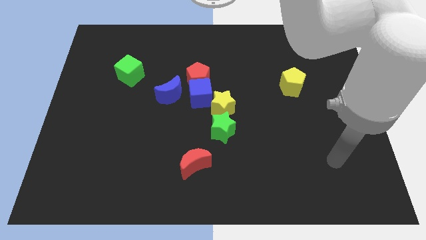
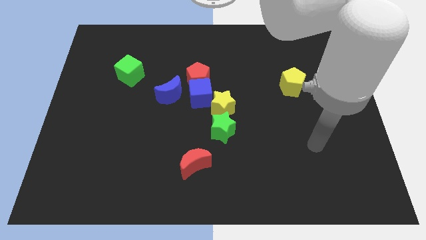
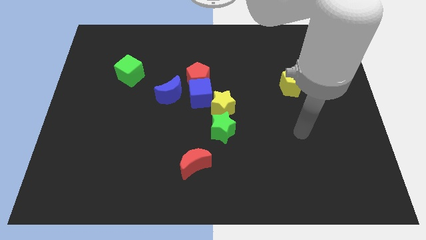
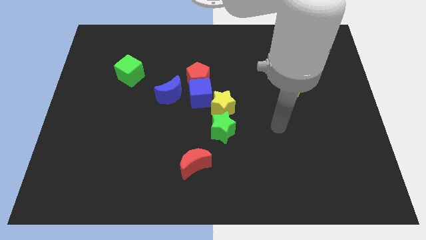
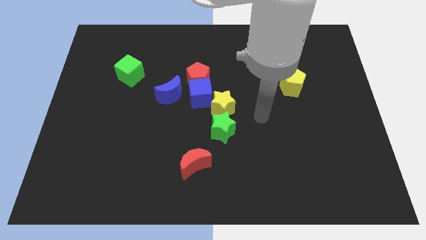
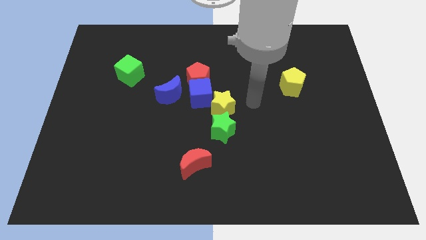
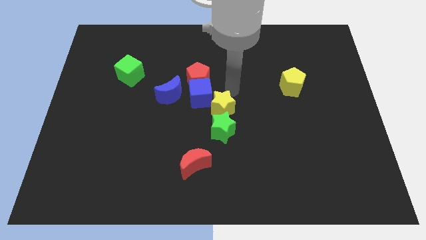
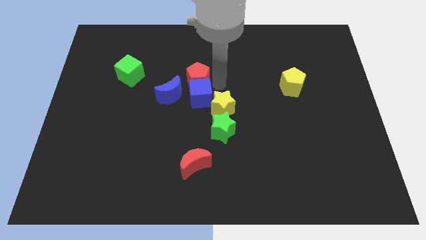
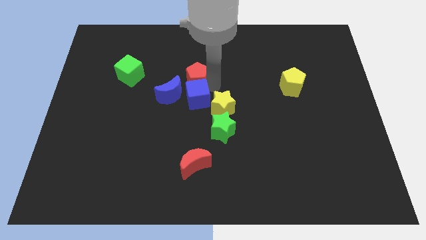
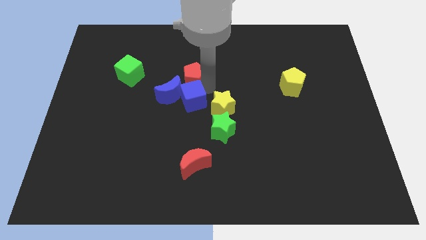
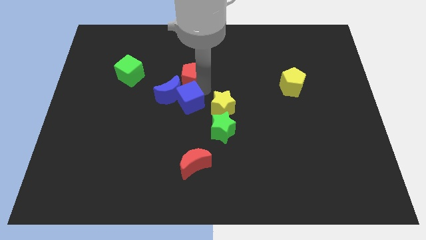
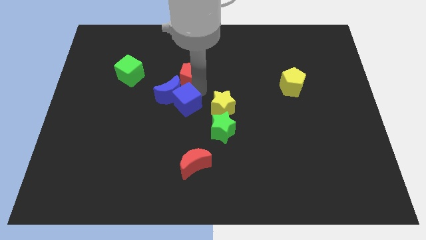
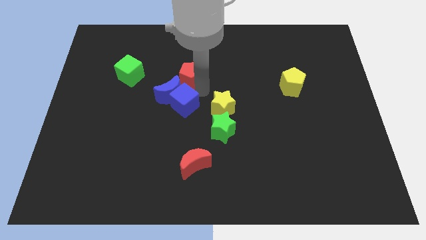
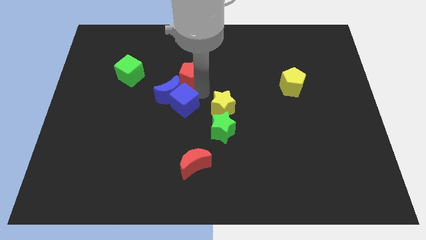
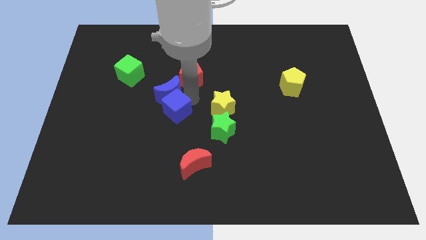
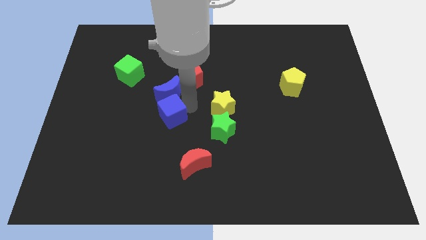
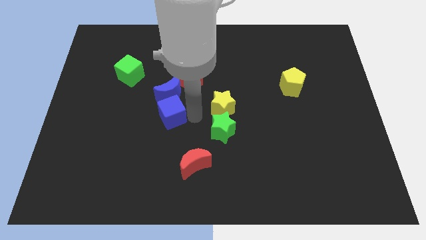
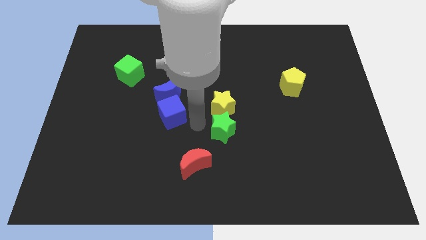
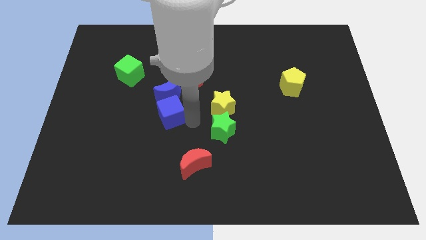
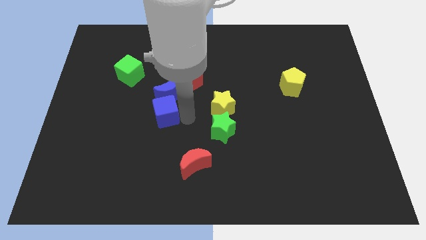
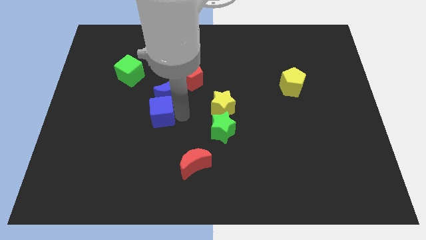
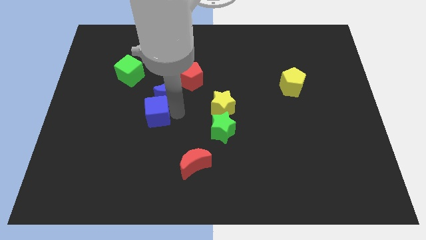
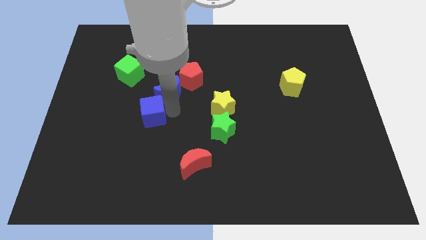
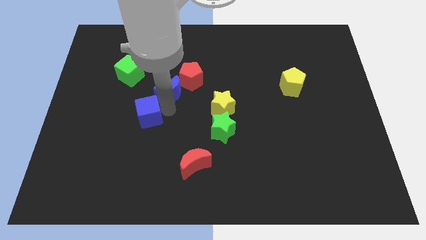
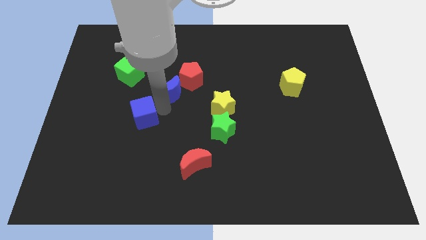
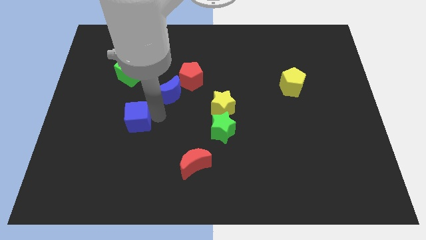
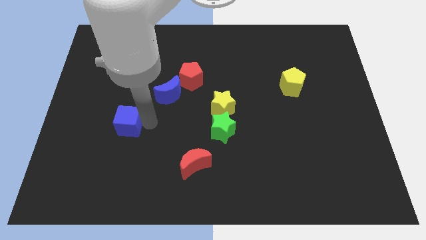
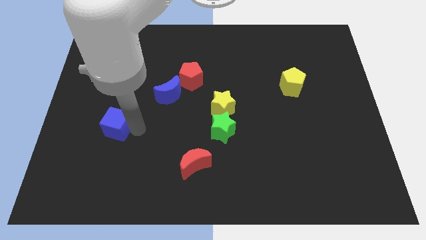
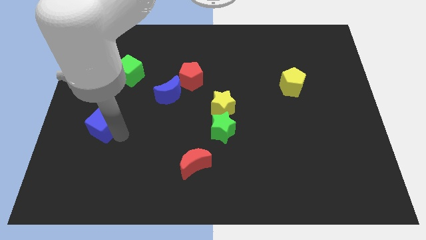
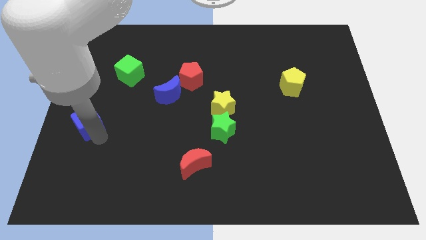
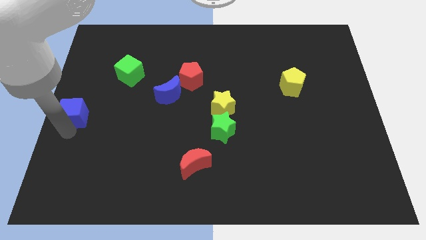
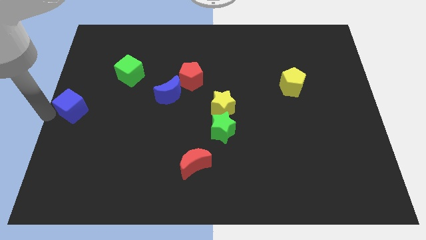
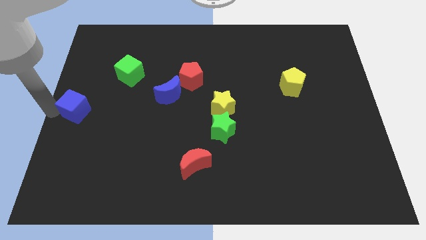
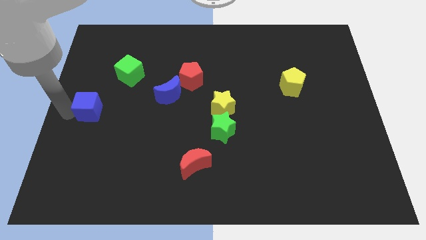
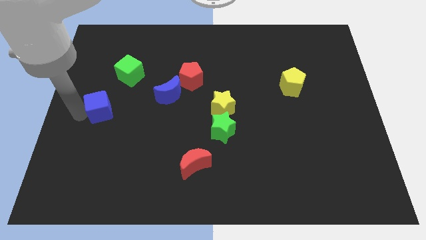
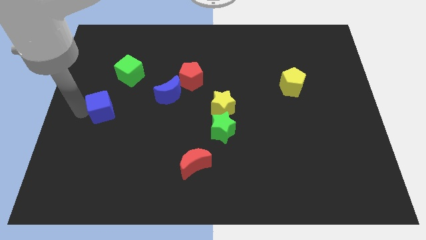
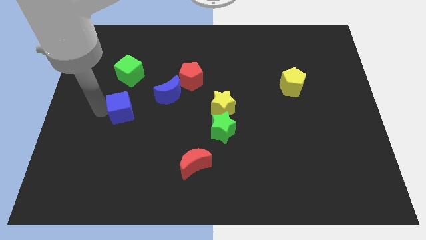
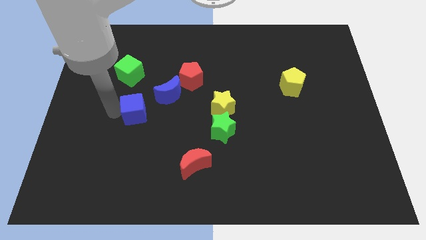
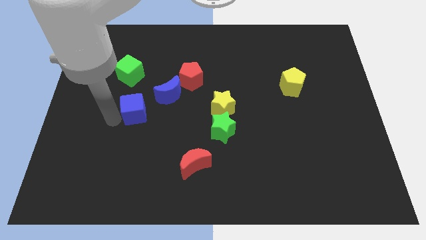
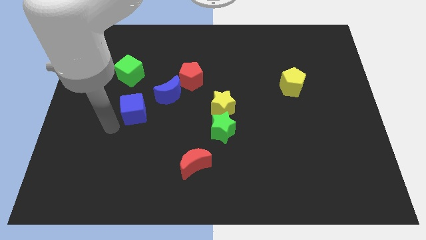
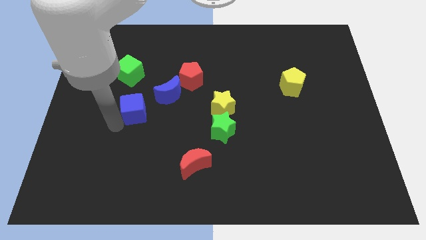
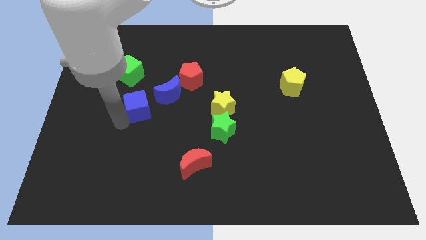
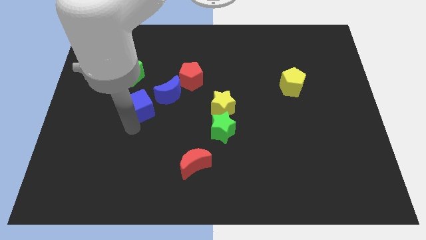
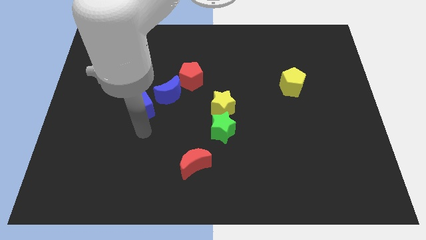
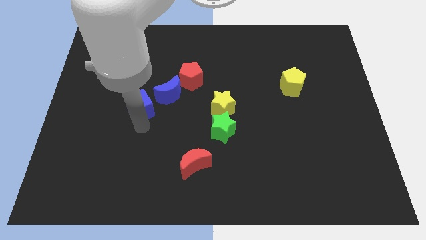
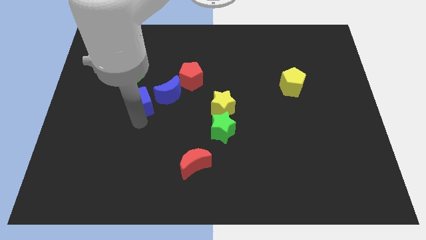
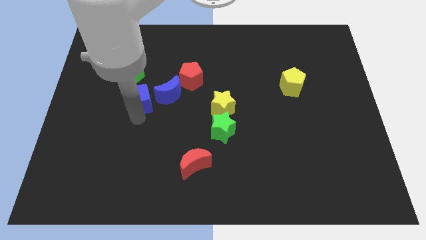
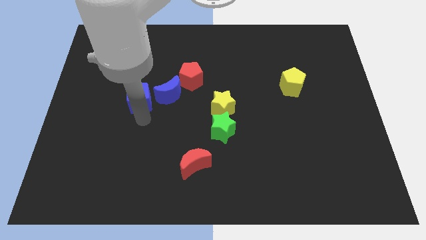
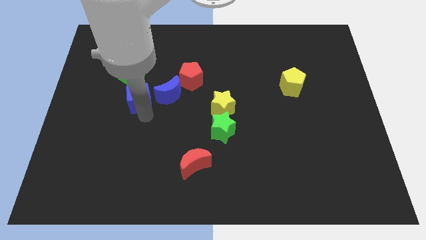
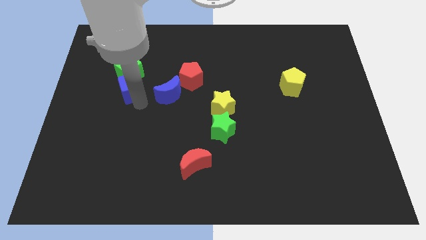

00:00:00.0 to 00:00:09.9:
move the blue cube towards the green cube

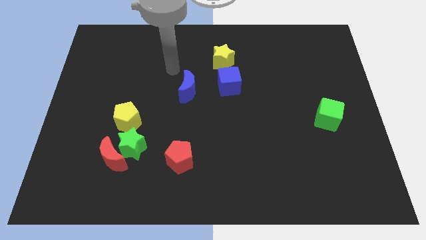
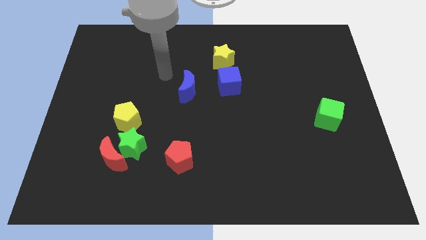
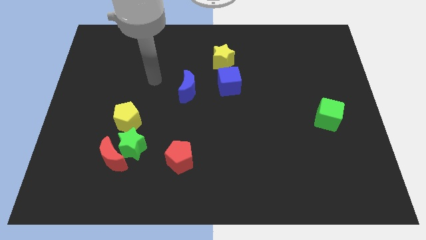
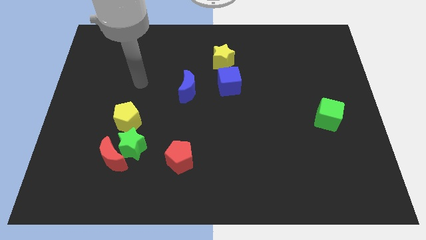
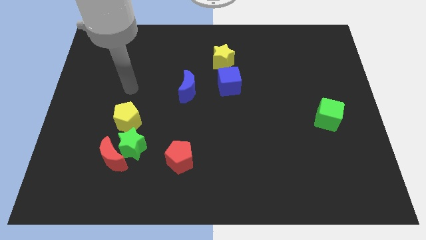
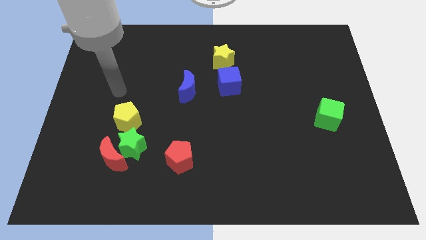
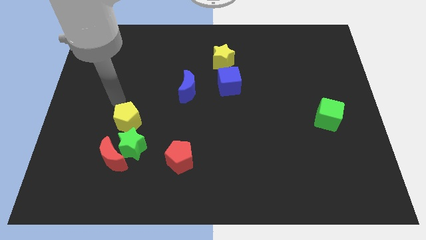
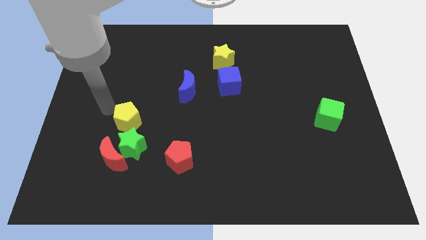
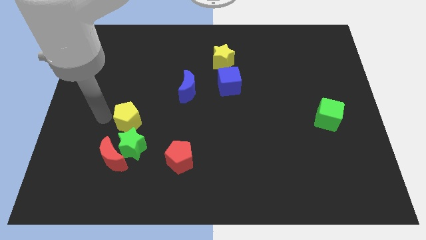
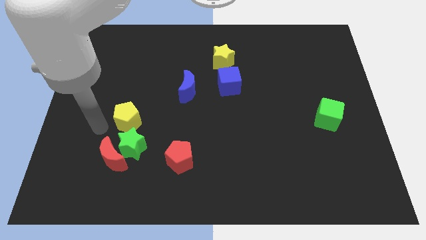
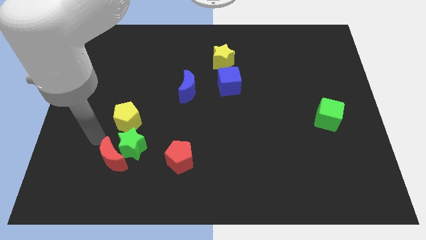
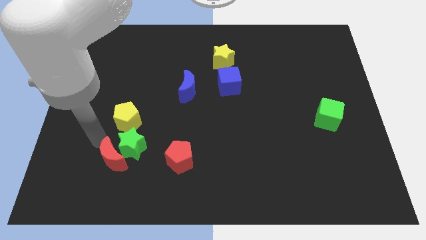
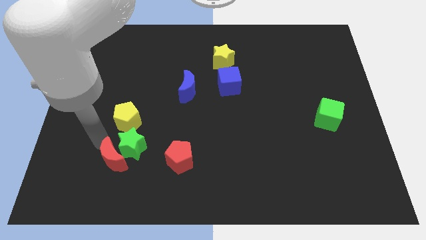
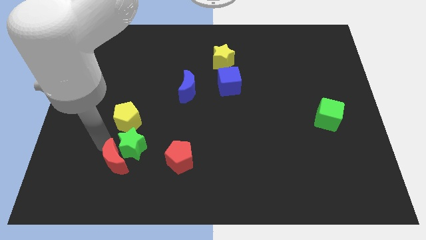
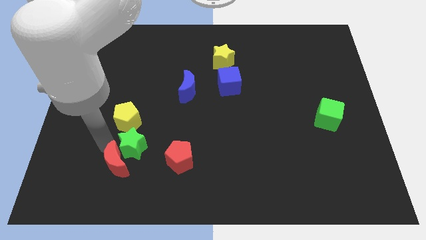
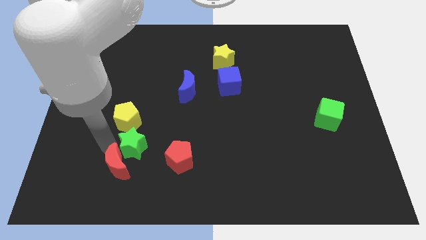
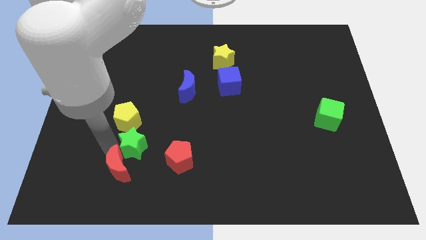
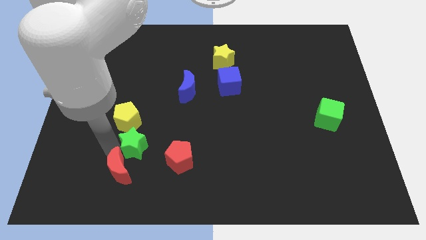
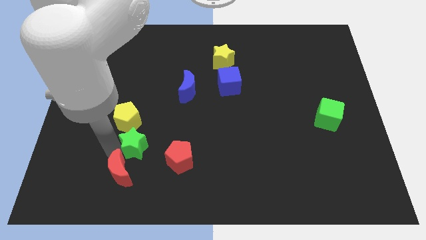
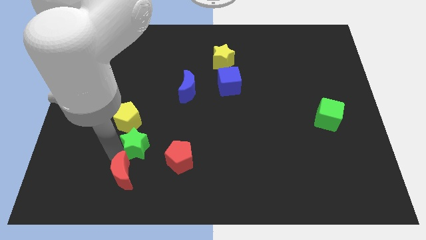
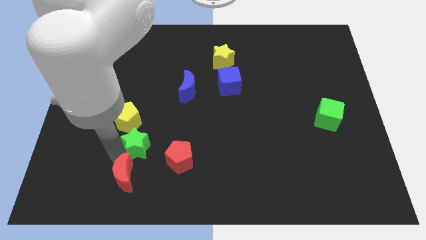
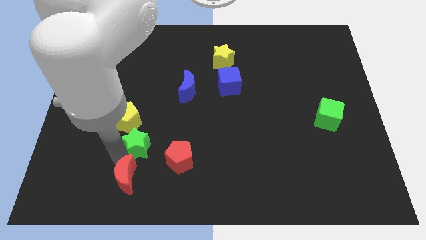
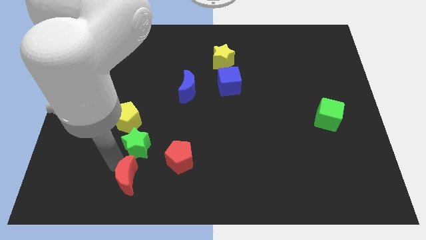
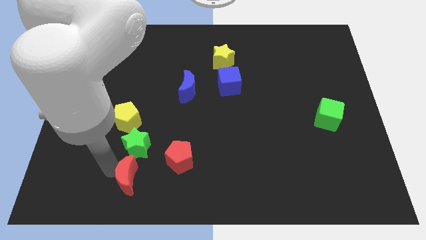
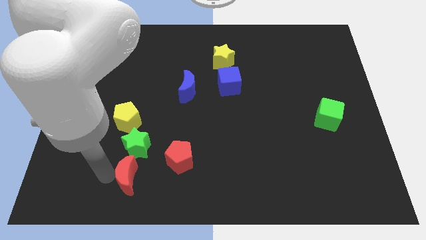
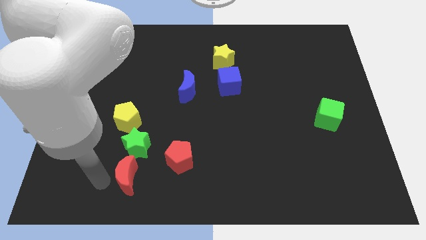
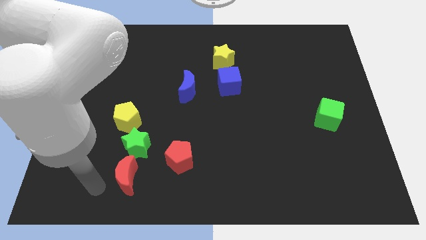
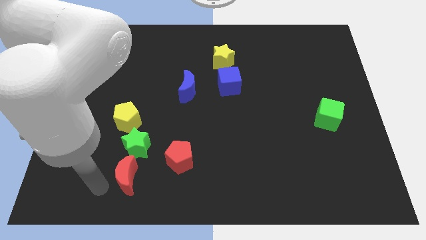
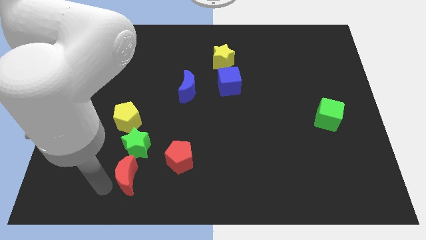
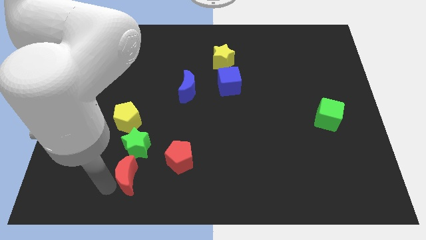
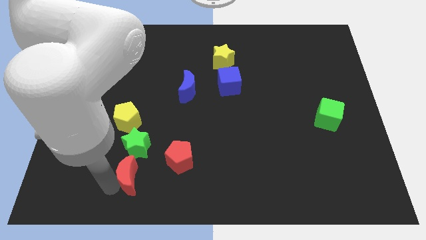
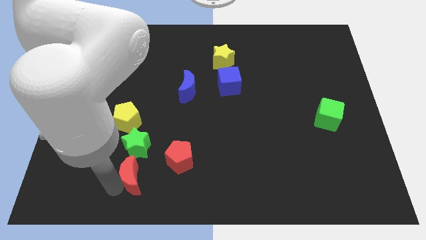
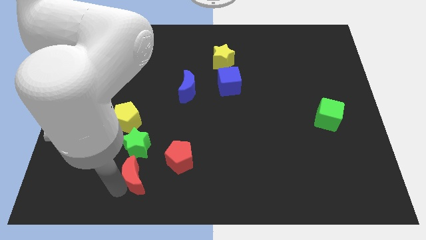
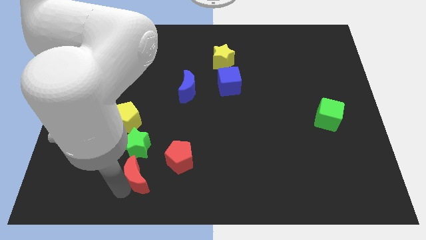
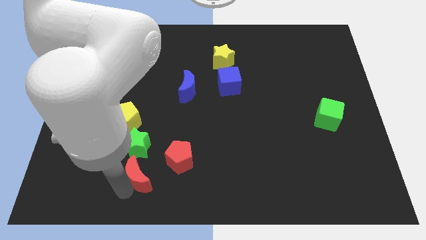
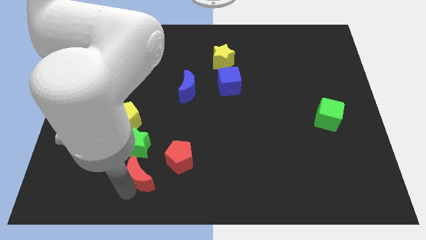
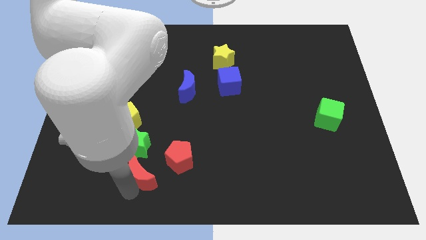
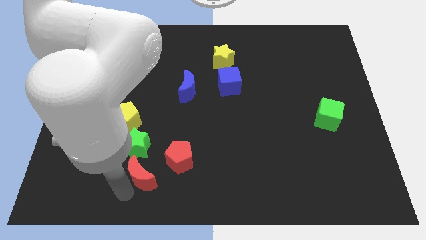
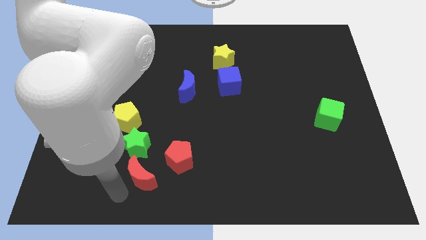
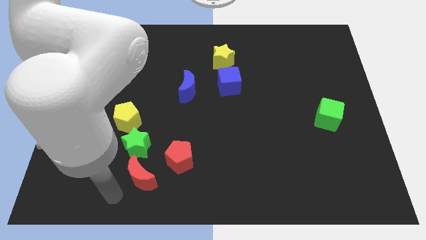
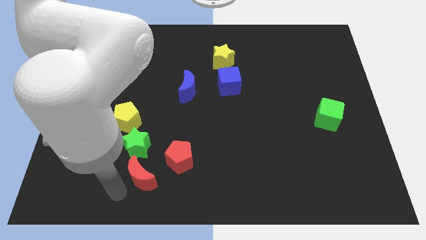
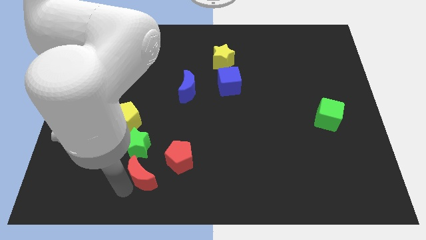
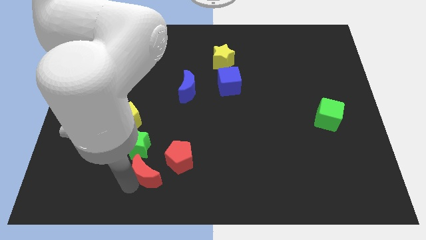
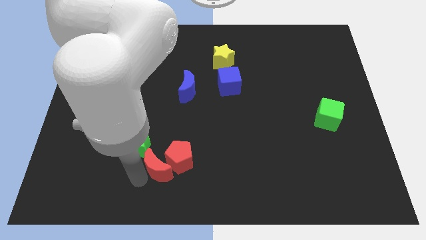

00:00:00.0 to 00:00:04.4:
put the red moon towards the red pentagon
